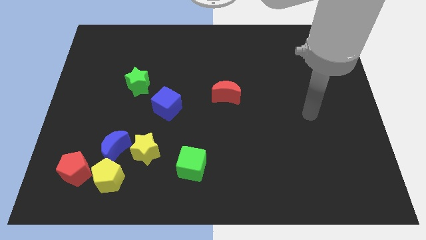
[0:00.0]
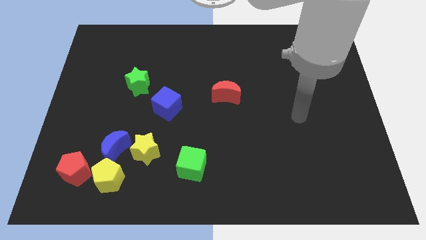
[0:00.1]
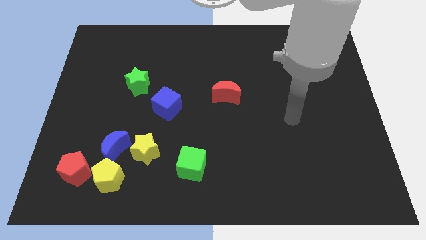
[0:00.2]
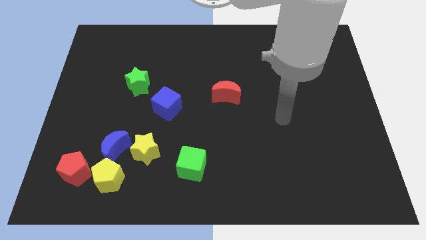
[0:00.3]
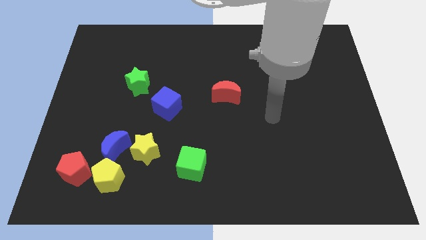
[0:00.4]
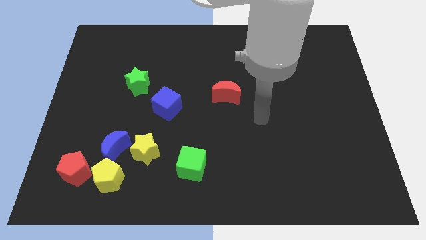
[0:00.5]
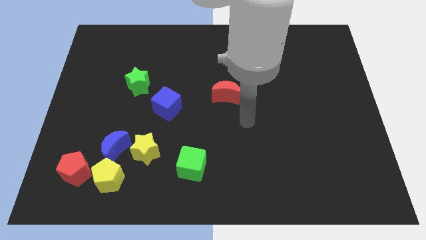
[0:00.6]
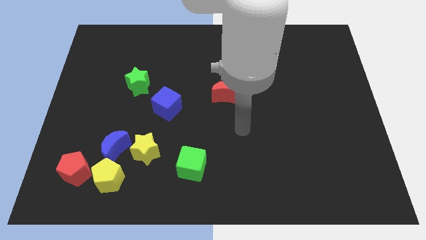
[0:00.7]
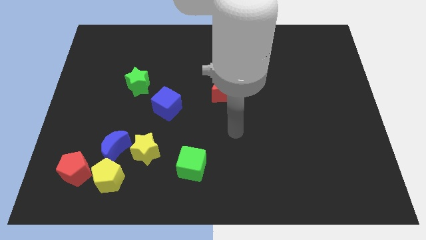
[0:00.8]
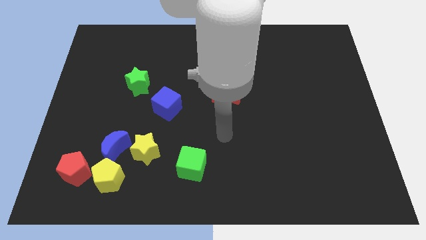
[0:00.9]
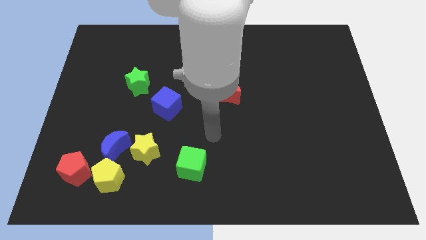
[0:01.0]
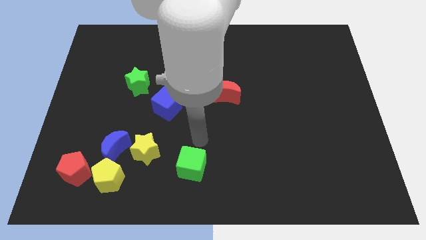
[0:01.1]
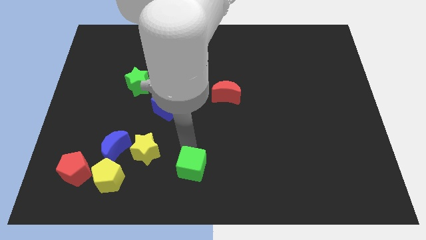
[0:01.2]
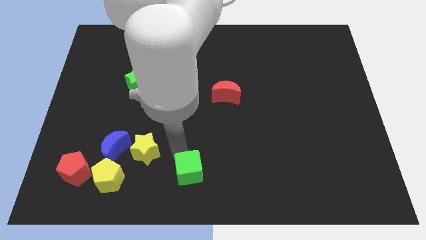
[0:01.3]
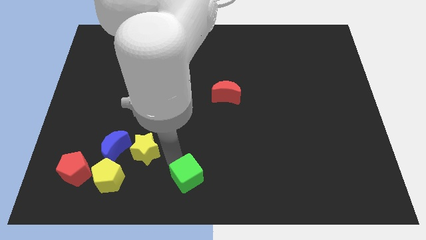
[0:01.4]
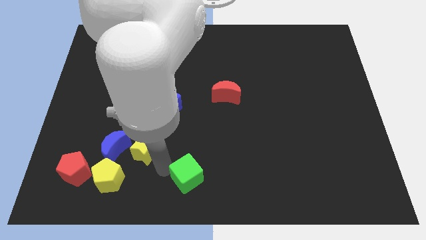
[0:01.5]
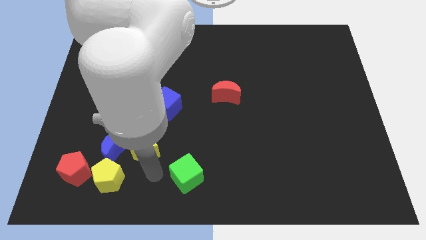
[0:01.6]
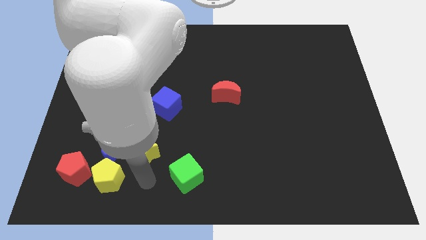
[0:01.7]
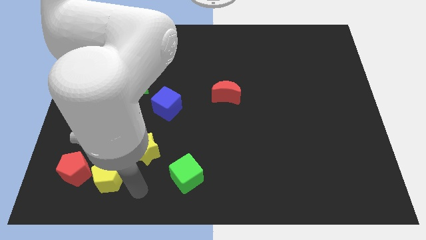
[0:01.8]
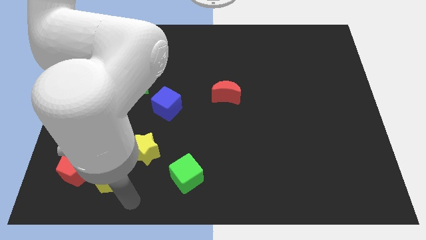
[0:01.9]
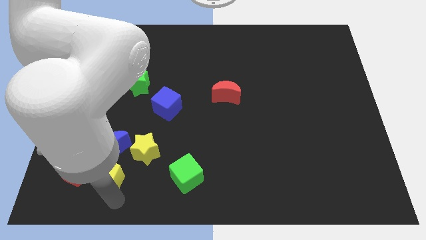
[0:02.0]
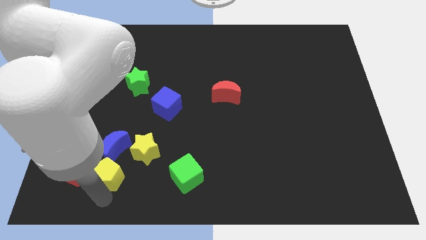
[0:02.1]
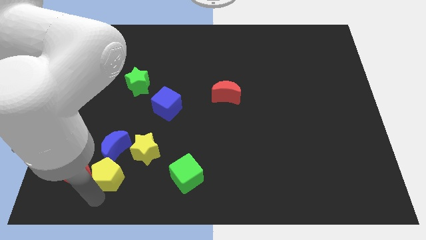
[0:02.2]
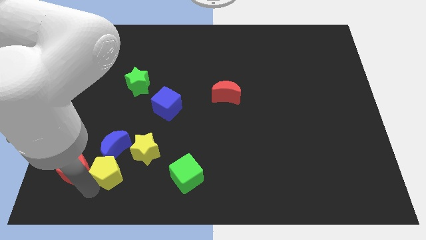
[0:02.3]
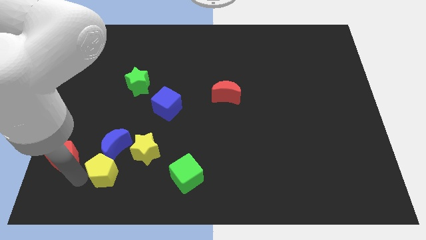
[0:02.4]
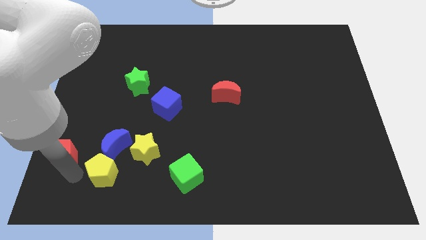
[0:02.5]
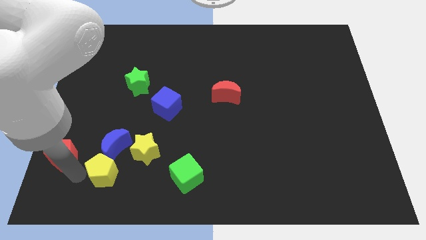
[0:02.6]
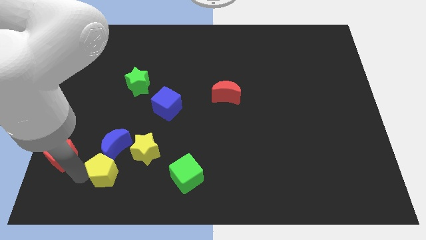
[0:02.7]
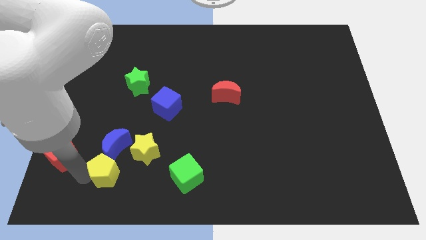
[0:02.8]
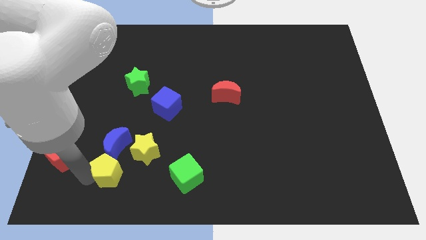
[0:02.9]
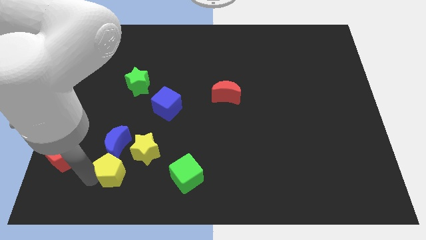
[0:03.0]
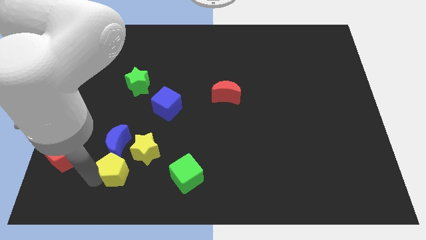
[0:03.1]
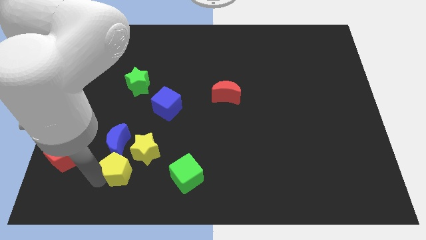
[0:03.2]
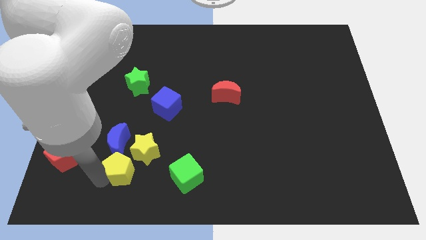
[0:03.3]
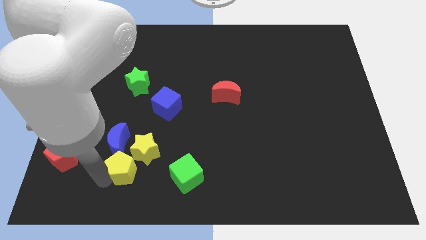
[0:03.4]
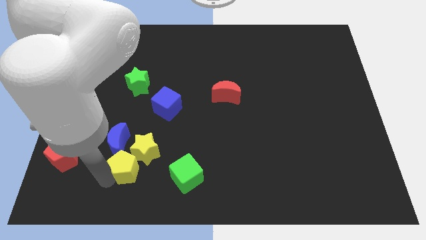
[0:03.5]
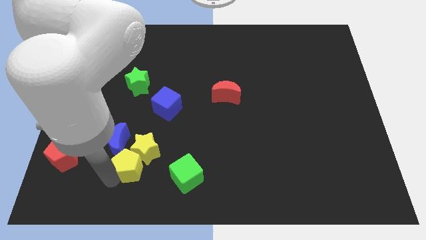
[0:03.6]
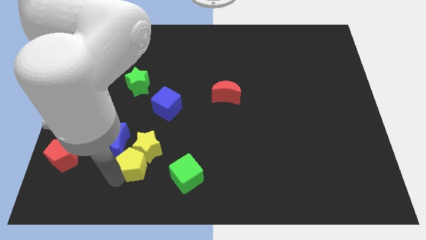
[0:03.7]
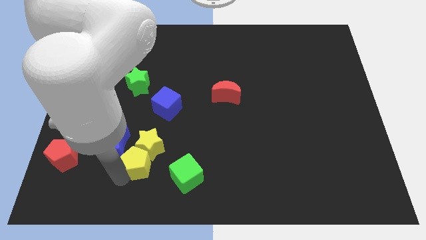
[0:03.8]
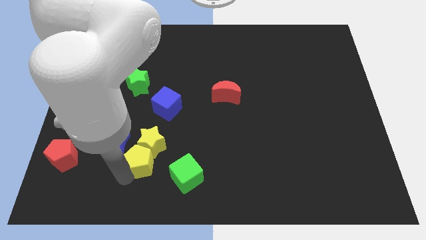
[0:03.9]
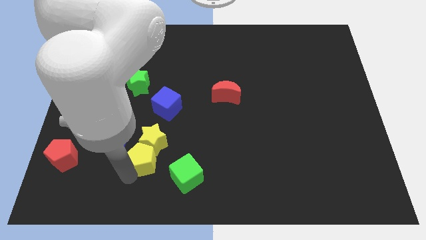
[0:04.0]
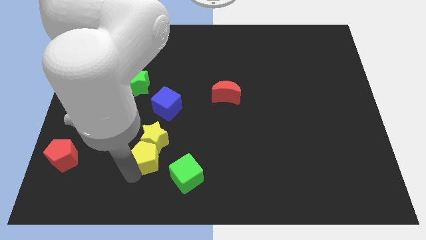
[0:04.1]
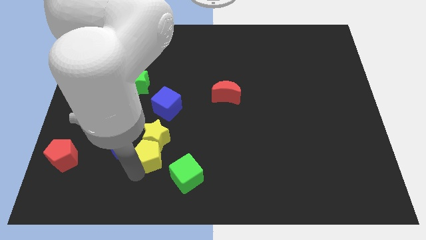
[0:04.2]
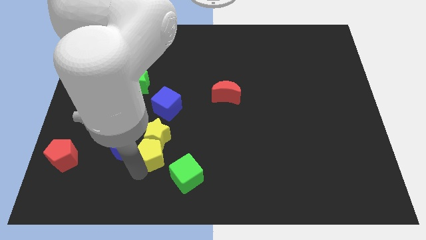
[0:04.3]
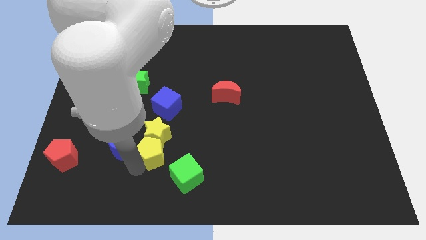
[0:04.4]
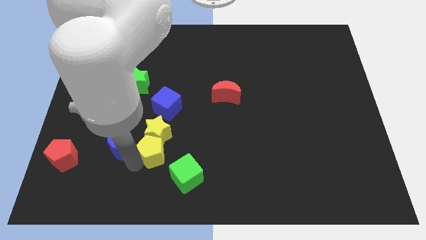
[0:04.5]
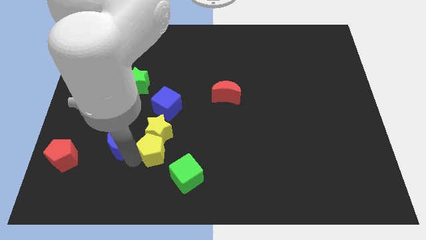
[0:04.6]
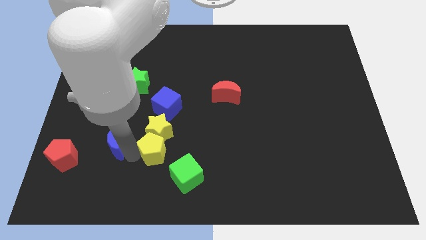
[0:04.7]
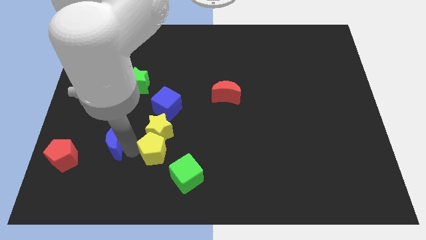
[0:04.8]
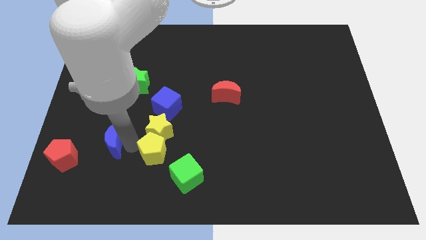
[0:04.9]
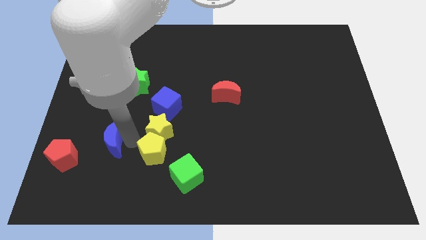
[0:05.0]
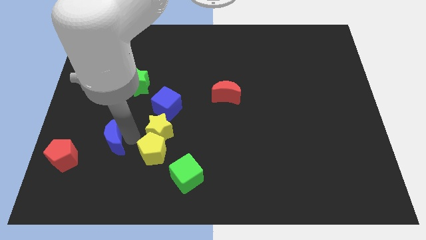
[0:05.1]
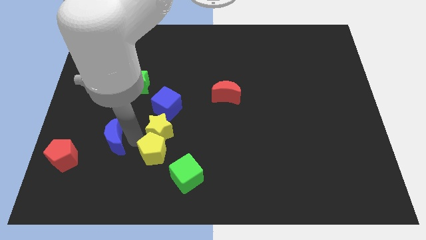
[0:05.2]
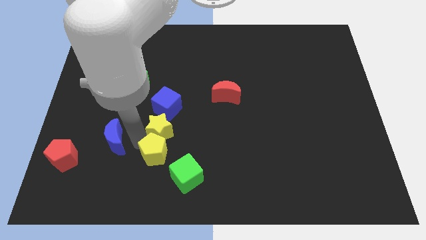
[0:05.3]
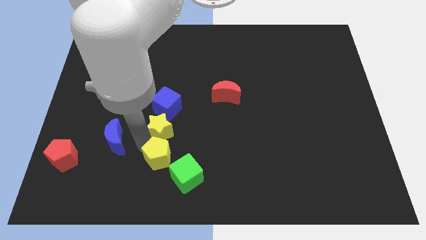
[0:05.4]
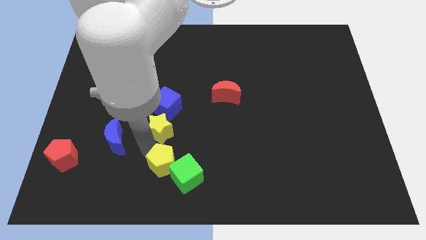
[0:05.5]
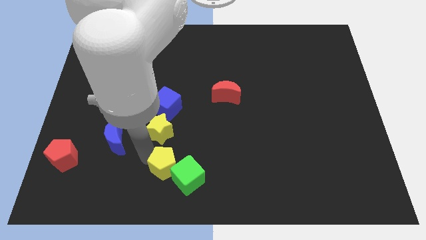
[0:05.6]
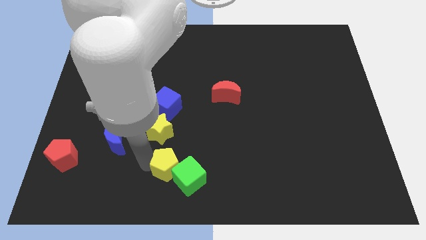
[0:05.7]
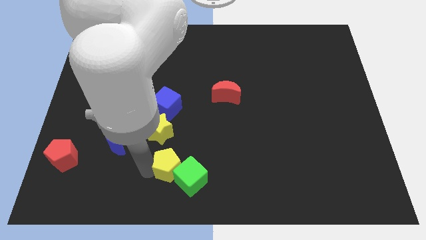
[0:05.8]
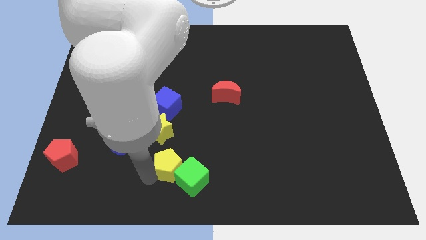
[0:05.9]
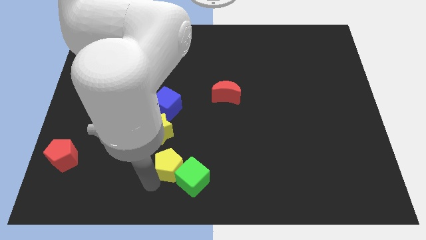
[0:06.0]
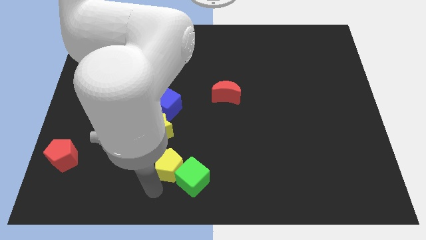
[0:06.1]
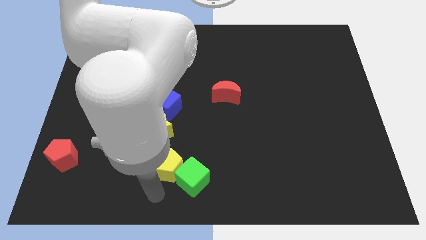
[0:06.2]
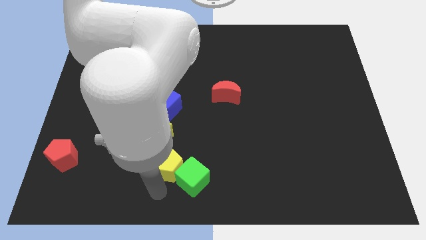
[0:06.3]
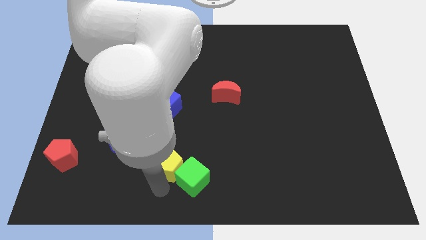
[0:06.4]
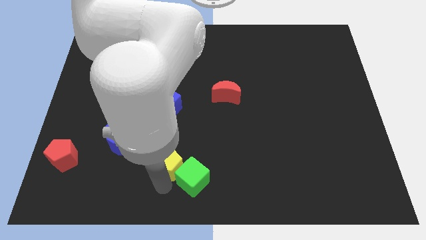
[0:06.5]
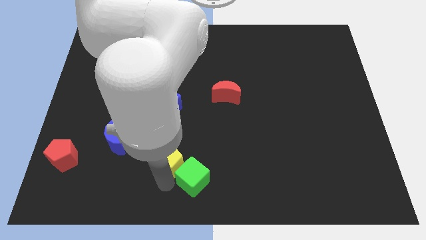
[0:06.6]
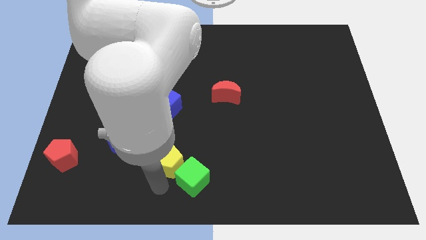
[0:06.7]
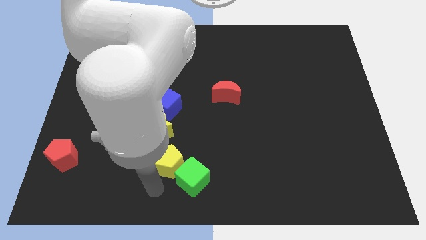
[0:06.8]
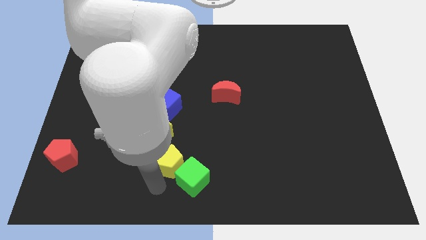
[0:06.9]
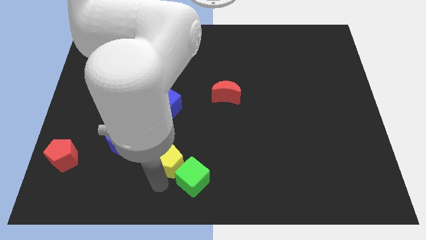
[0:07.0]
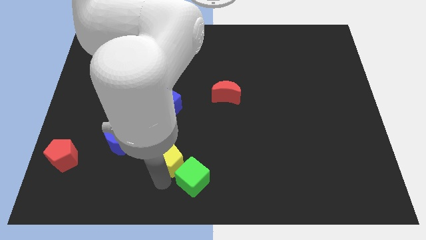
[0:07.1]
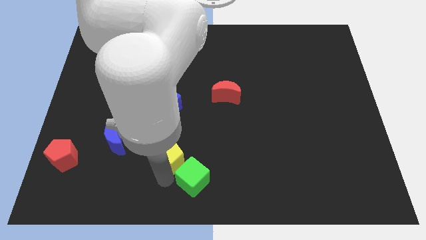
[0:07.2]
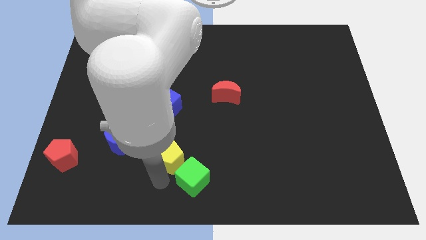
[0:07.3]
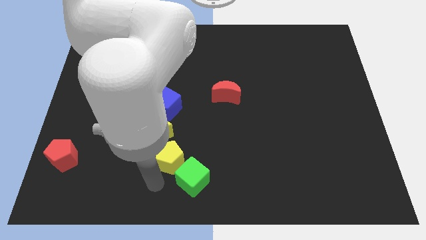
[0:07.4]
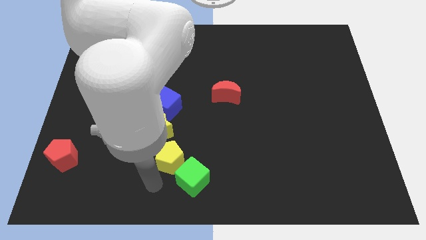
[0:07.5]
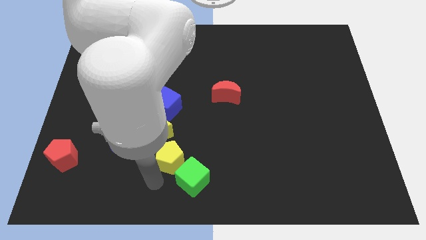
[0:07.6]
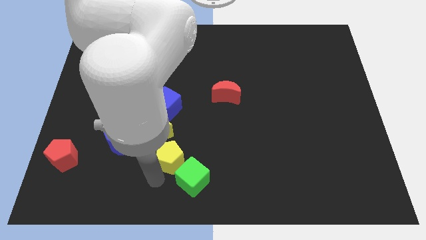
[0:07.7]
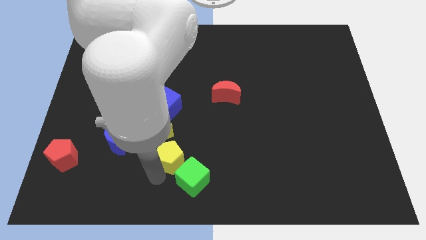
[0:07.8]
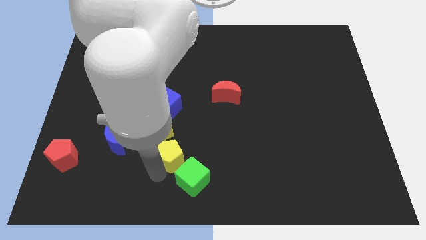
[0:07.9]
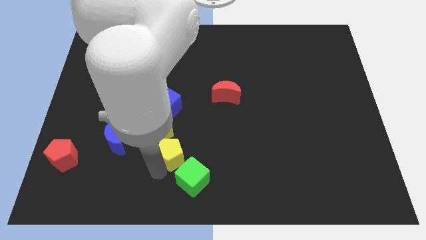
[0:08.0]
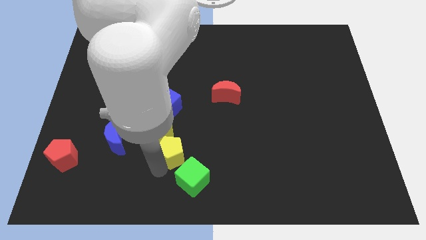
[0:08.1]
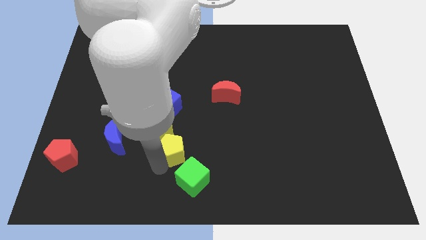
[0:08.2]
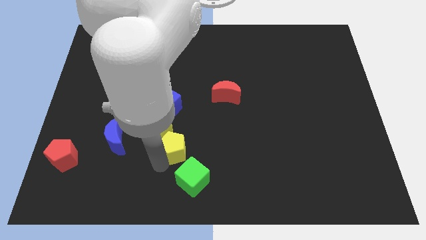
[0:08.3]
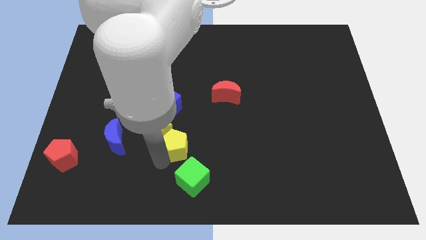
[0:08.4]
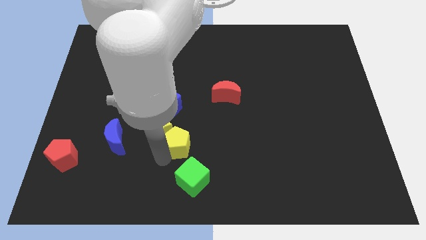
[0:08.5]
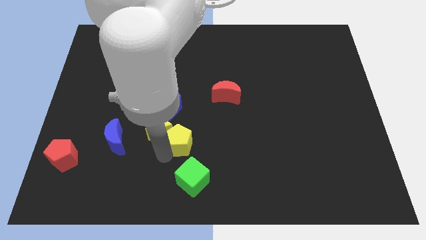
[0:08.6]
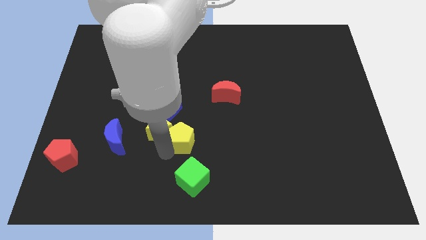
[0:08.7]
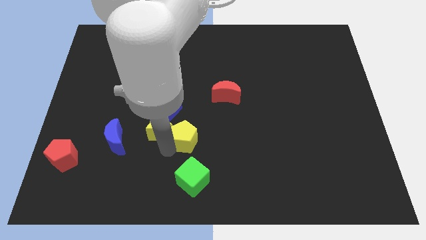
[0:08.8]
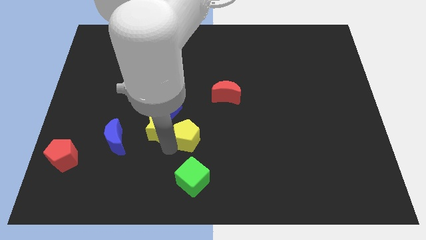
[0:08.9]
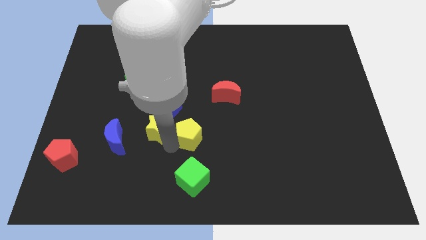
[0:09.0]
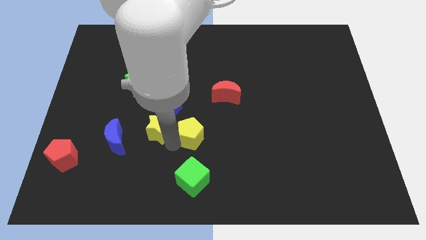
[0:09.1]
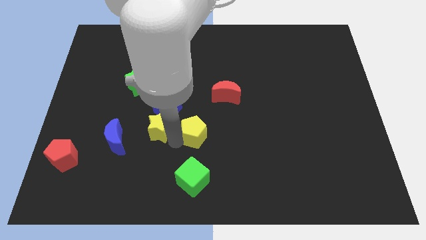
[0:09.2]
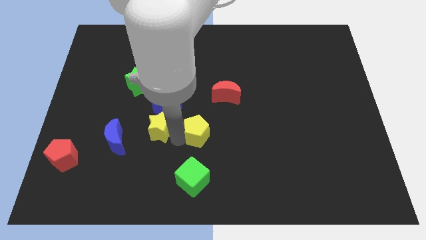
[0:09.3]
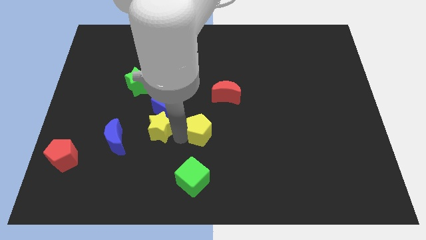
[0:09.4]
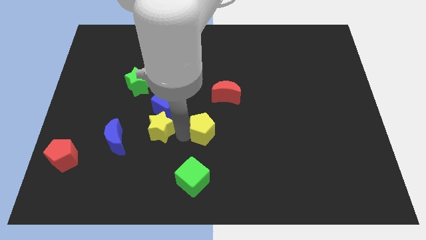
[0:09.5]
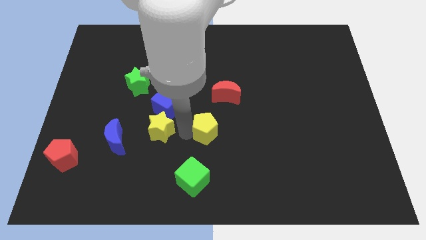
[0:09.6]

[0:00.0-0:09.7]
push the yellow pentagon to the bottom side of the red moon
